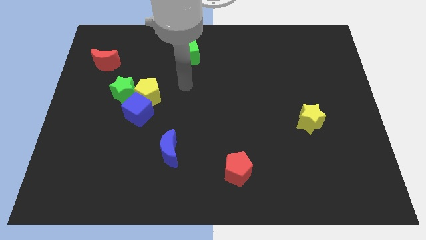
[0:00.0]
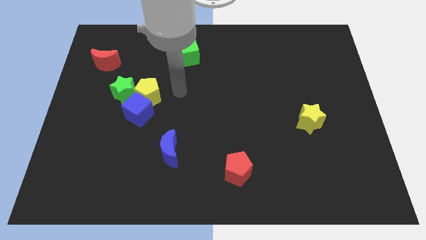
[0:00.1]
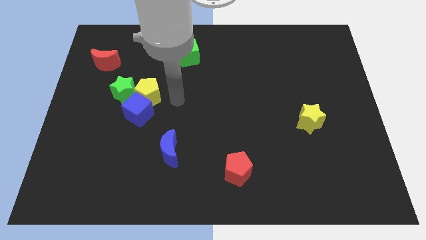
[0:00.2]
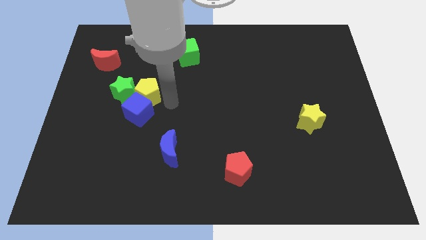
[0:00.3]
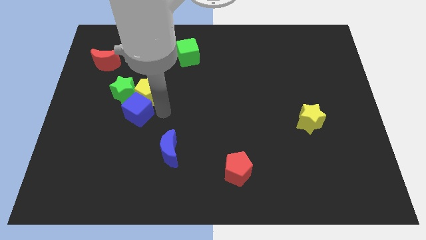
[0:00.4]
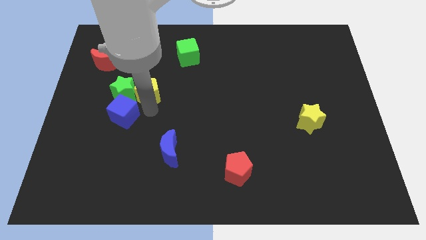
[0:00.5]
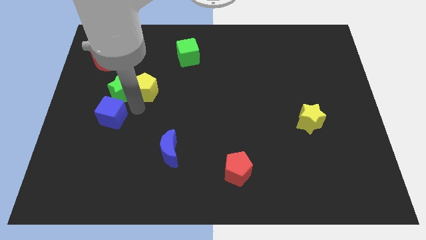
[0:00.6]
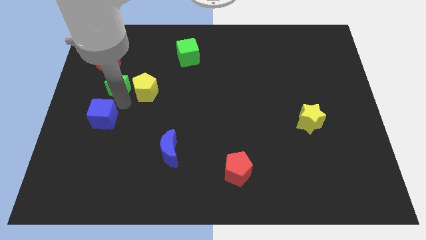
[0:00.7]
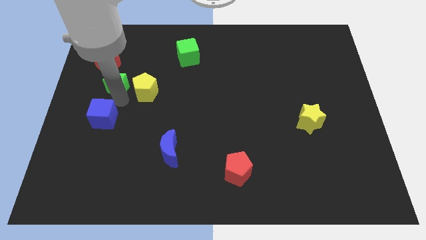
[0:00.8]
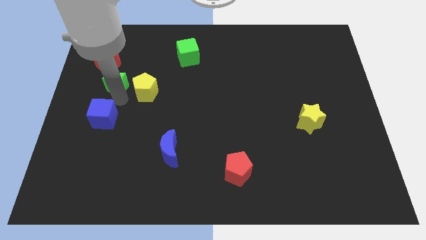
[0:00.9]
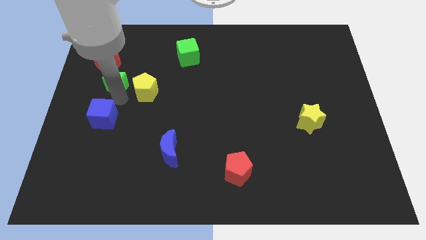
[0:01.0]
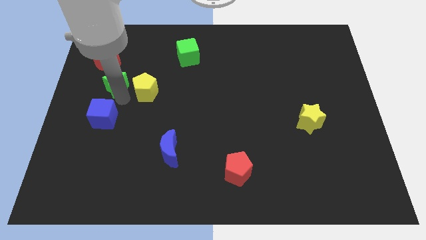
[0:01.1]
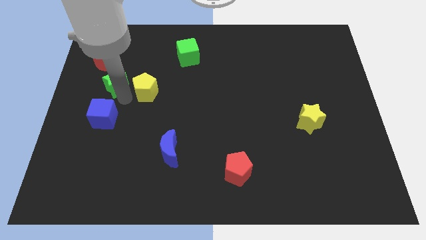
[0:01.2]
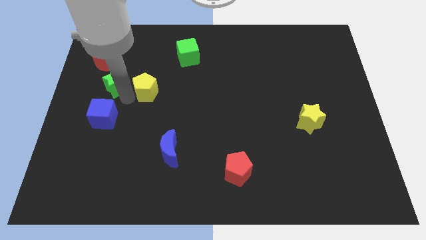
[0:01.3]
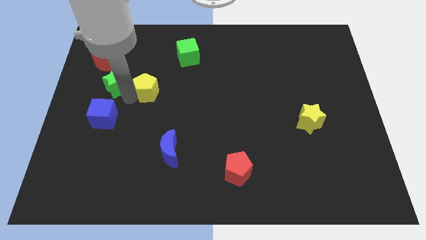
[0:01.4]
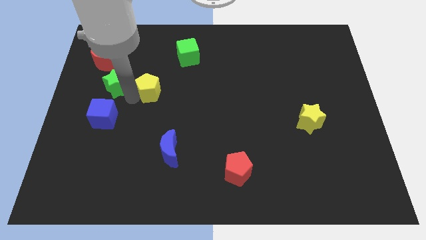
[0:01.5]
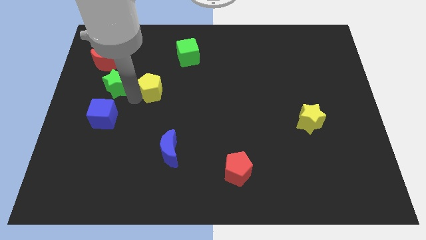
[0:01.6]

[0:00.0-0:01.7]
pull the yellow pentagon apart from the blue cube and green star

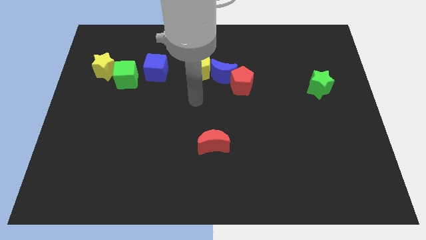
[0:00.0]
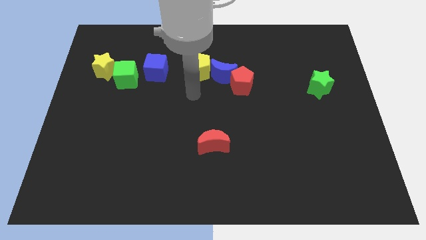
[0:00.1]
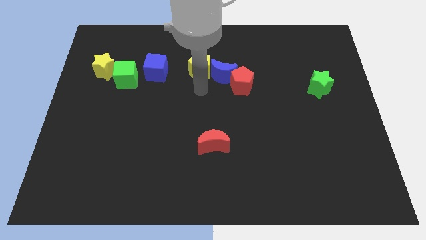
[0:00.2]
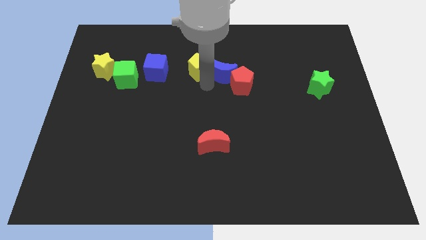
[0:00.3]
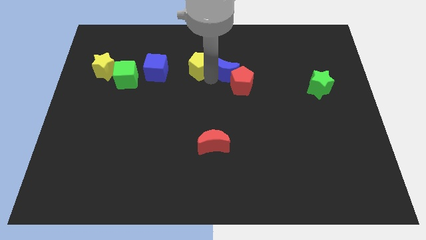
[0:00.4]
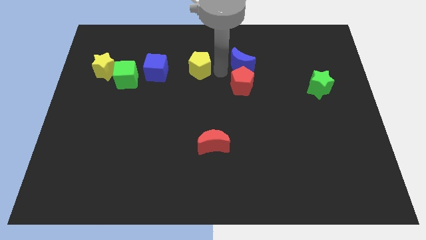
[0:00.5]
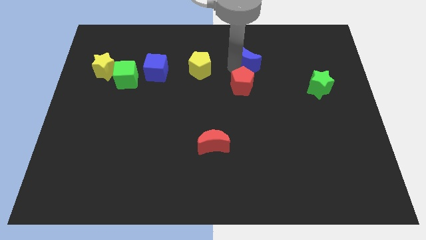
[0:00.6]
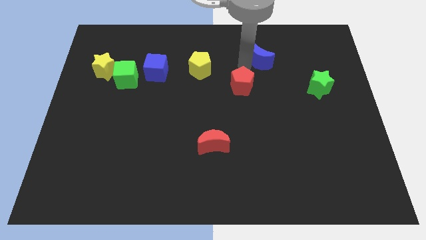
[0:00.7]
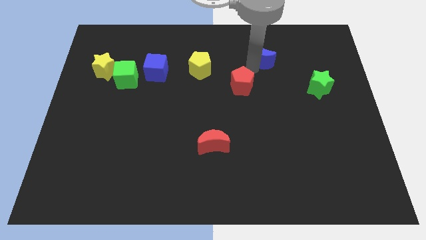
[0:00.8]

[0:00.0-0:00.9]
pull the red pentagon apart from the blue moon

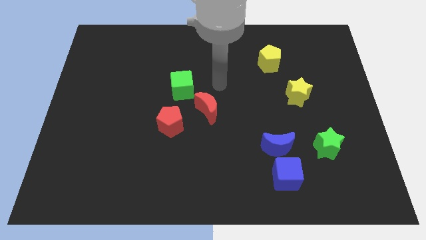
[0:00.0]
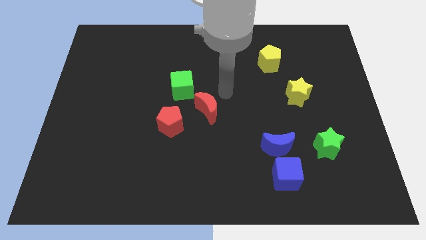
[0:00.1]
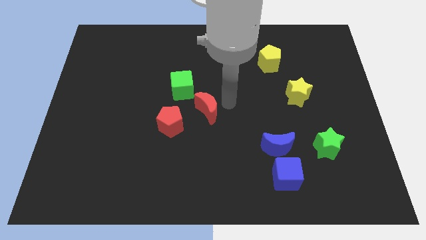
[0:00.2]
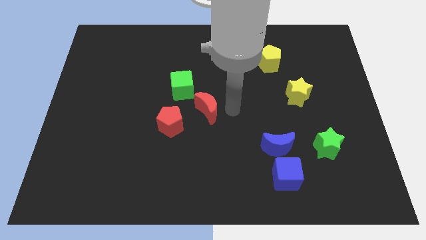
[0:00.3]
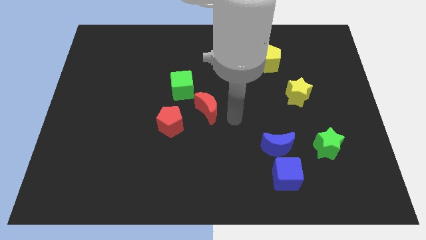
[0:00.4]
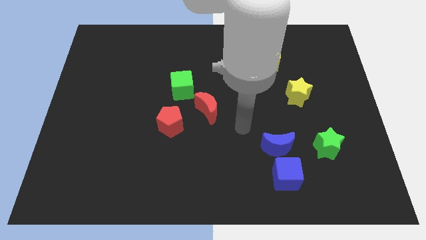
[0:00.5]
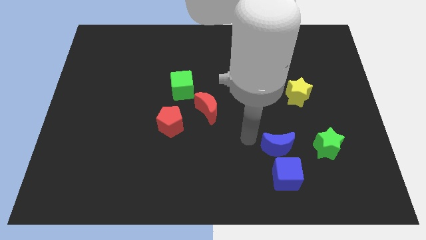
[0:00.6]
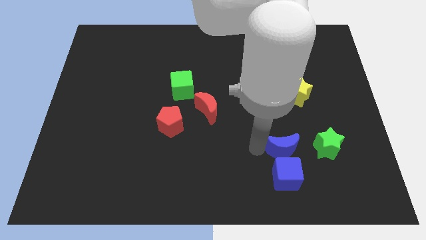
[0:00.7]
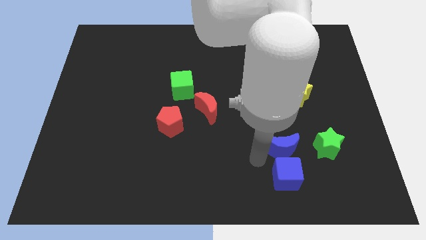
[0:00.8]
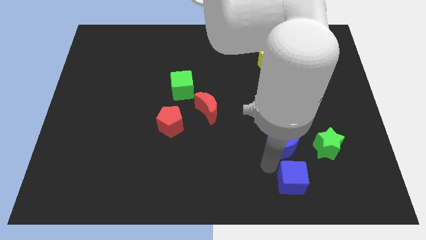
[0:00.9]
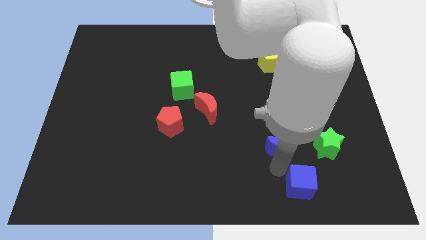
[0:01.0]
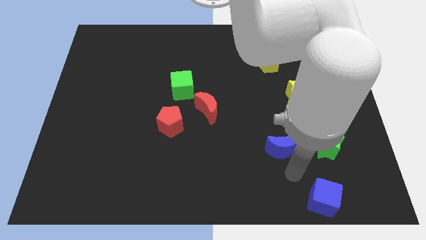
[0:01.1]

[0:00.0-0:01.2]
separate the blue moon from the blue cube

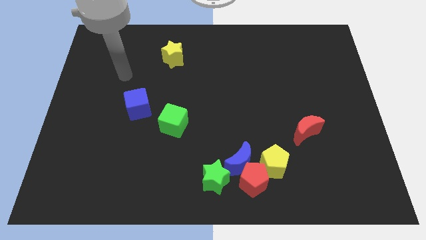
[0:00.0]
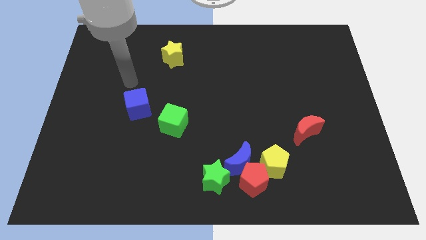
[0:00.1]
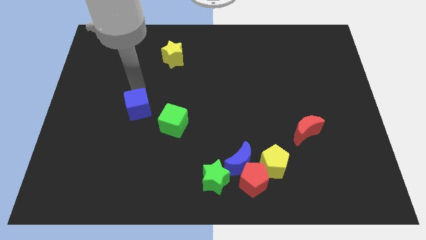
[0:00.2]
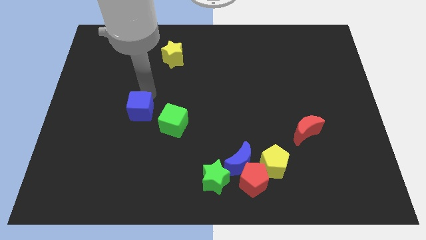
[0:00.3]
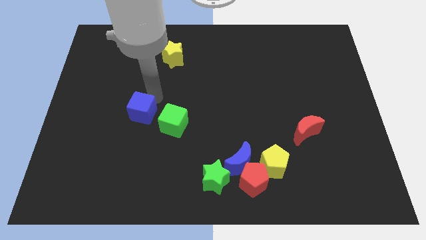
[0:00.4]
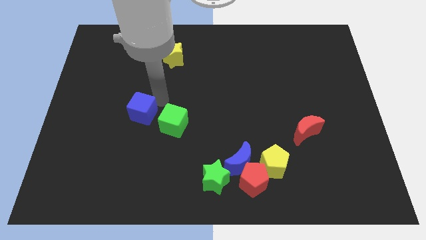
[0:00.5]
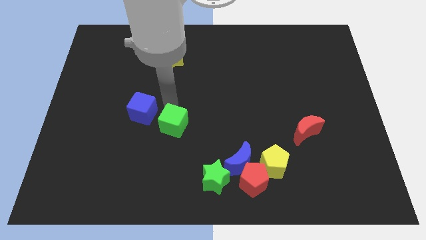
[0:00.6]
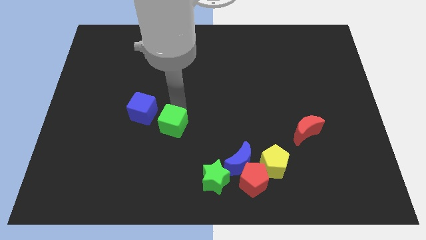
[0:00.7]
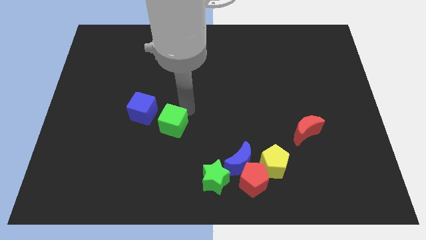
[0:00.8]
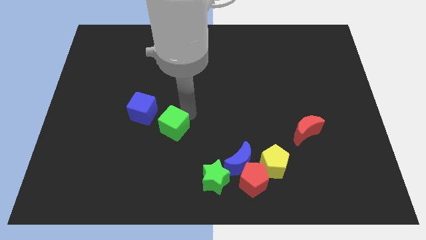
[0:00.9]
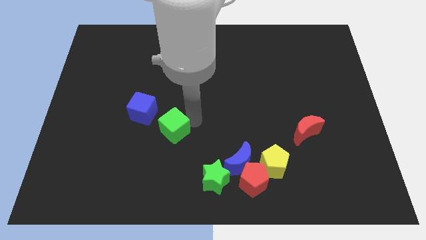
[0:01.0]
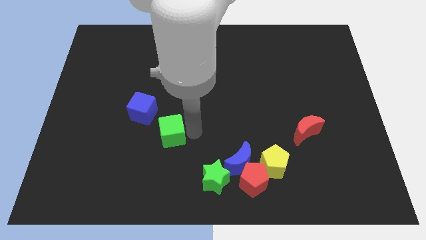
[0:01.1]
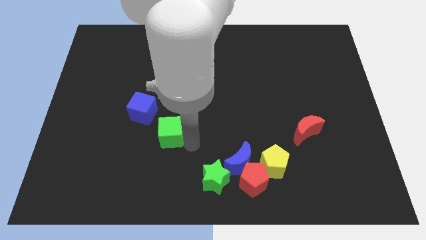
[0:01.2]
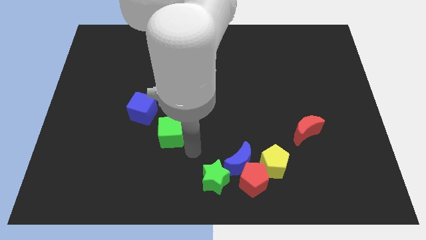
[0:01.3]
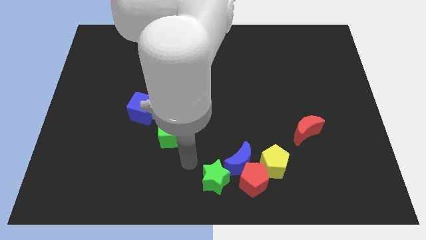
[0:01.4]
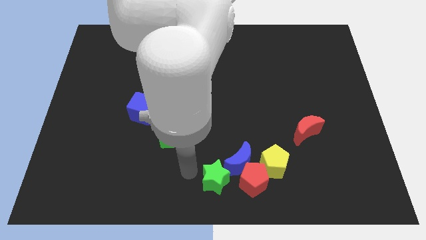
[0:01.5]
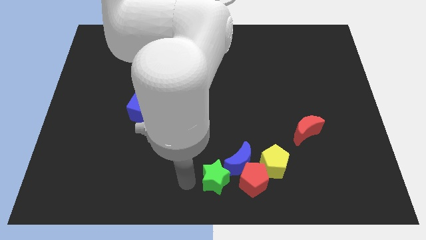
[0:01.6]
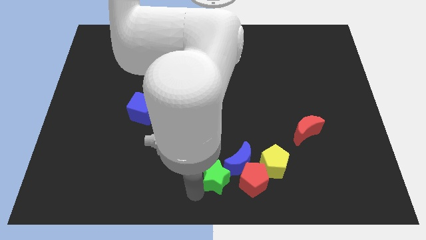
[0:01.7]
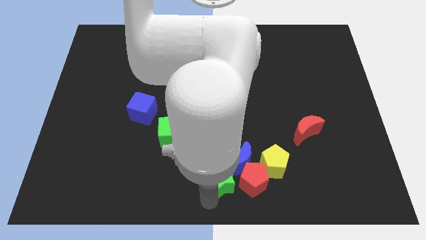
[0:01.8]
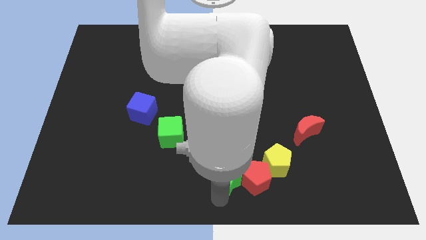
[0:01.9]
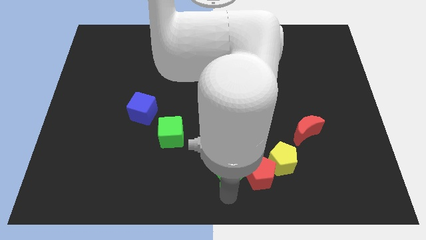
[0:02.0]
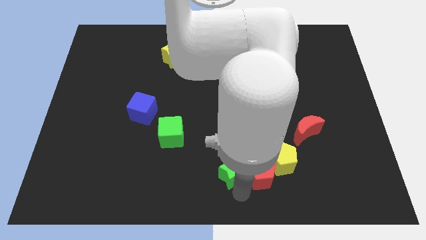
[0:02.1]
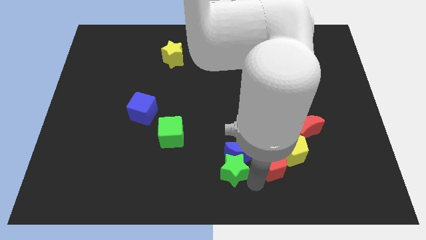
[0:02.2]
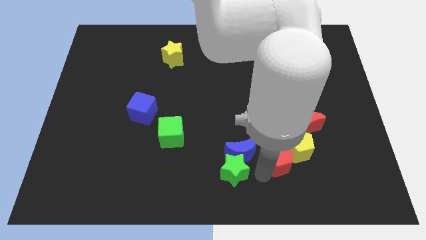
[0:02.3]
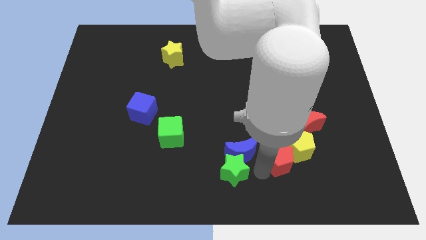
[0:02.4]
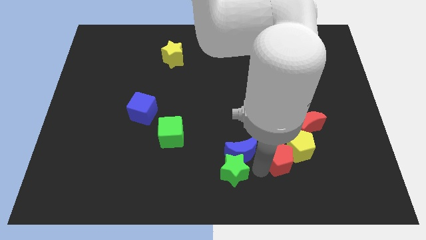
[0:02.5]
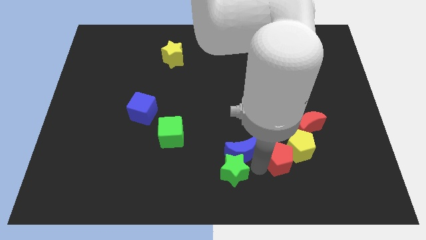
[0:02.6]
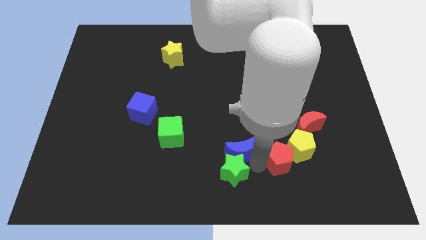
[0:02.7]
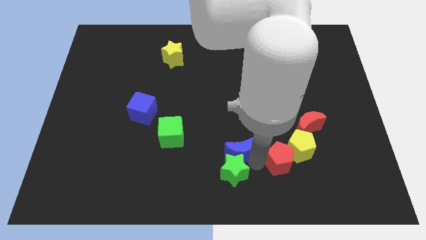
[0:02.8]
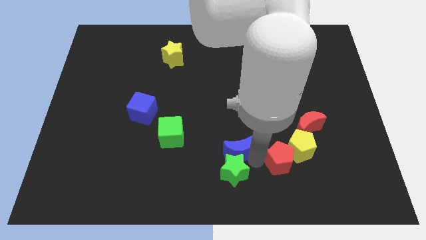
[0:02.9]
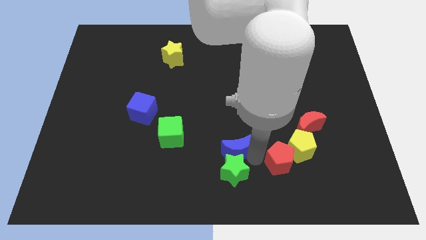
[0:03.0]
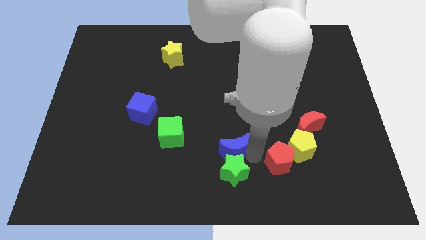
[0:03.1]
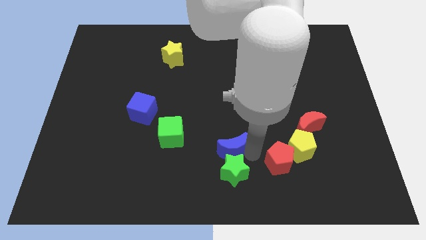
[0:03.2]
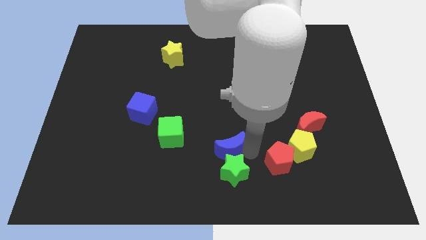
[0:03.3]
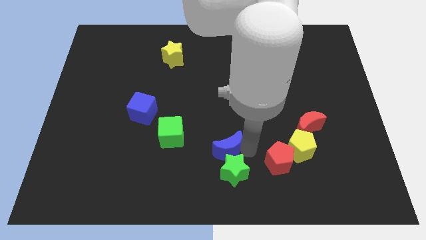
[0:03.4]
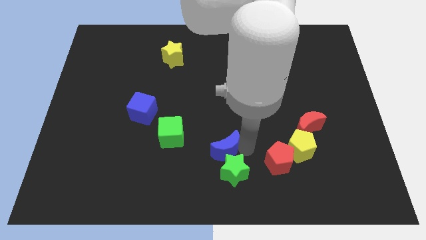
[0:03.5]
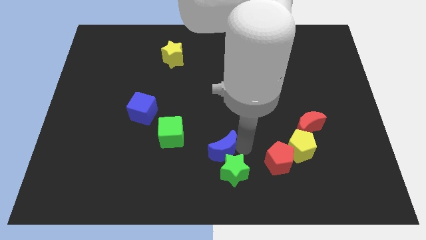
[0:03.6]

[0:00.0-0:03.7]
separate the blue moon from the group

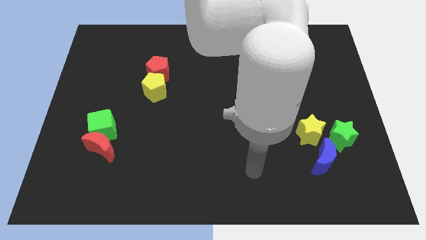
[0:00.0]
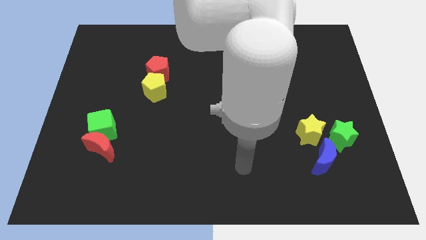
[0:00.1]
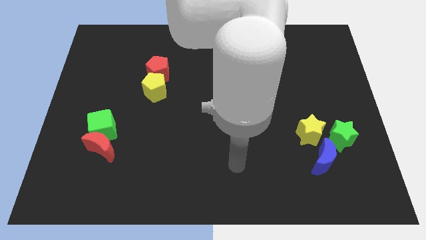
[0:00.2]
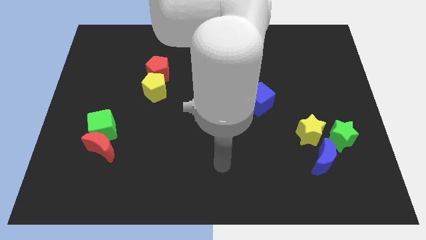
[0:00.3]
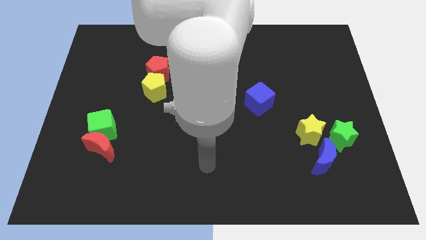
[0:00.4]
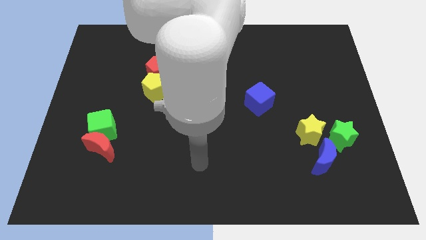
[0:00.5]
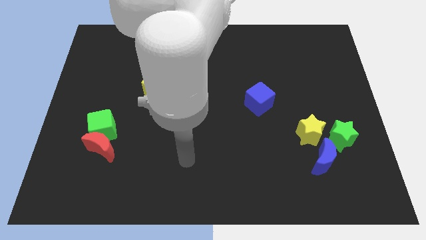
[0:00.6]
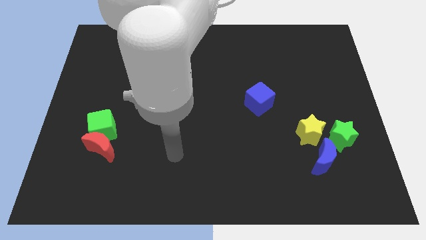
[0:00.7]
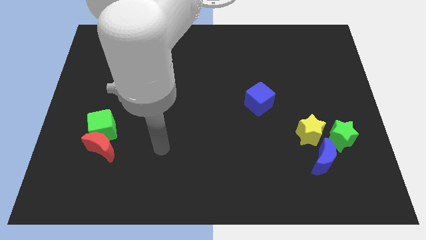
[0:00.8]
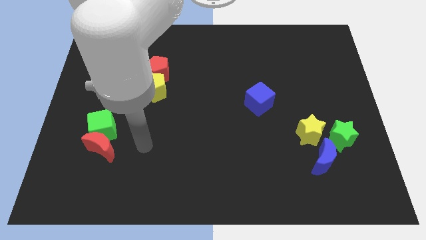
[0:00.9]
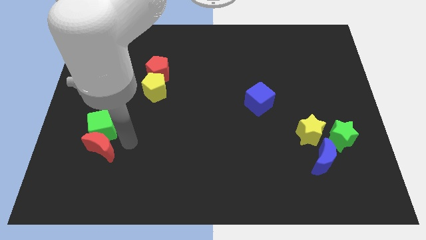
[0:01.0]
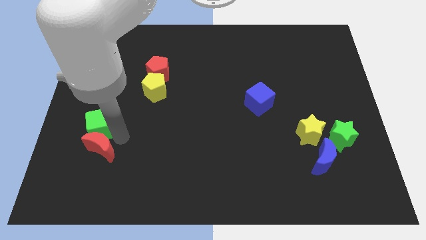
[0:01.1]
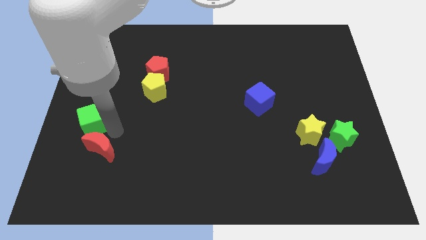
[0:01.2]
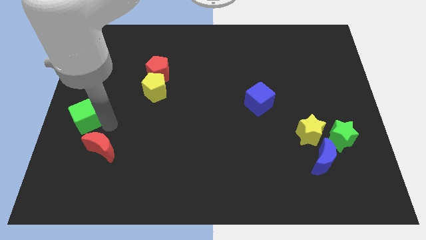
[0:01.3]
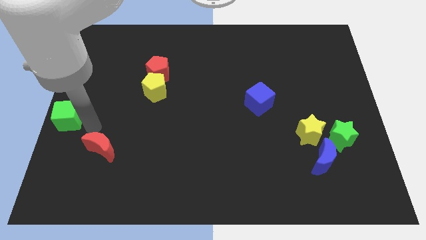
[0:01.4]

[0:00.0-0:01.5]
move the red moon away from the green cube

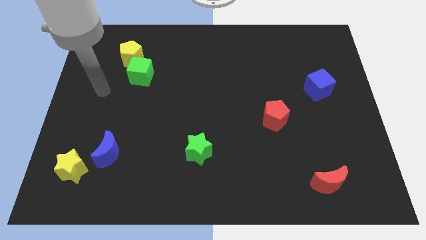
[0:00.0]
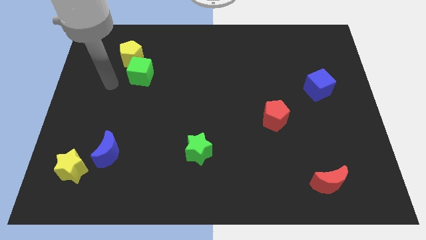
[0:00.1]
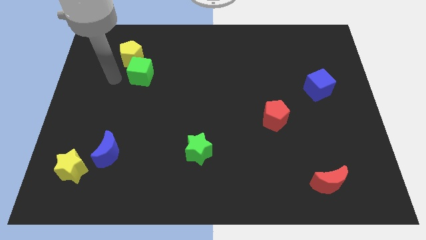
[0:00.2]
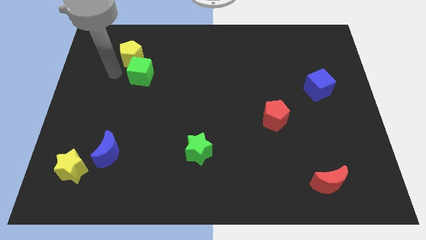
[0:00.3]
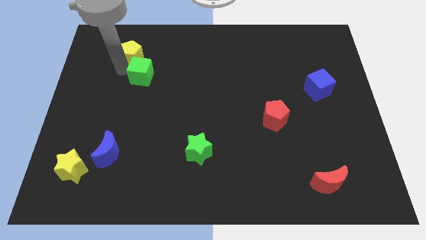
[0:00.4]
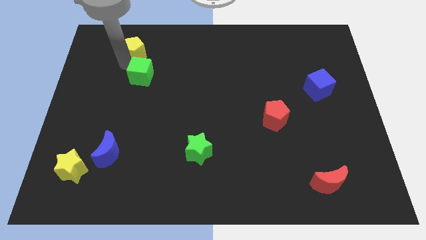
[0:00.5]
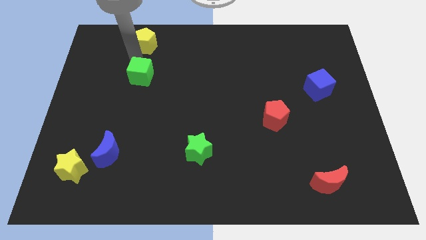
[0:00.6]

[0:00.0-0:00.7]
pull the green cube apart from the yellow pentagon
